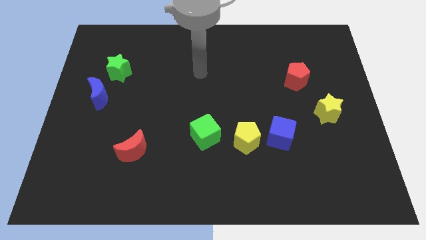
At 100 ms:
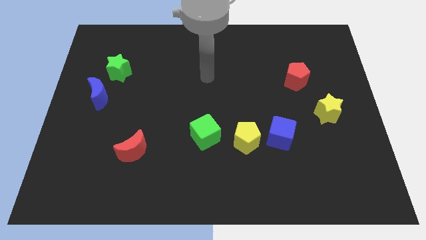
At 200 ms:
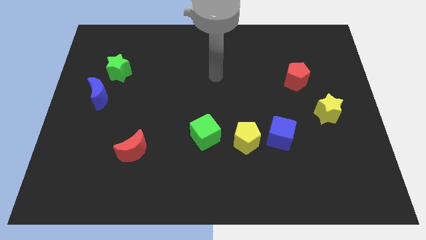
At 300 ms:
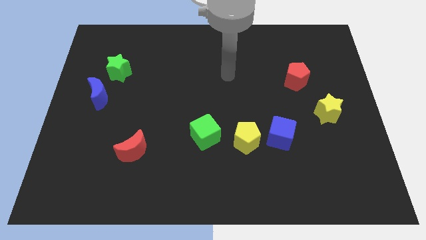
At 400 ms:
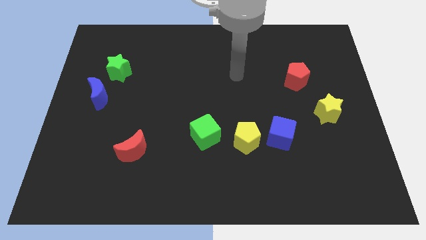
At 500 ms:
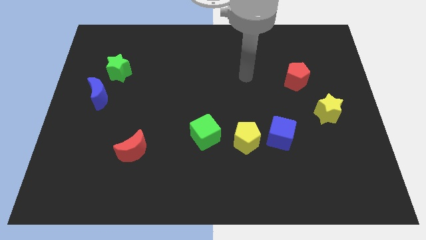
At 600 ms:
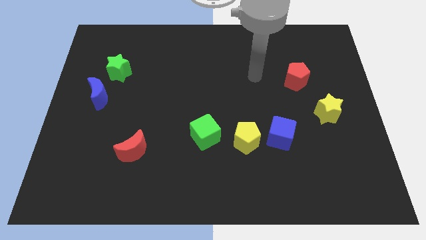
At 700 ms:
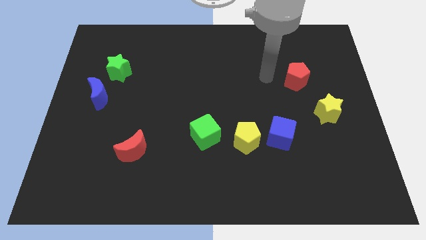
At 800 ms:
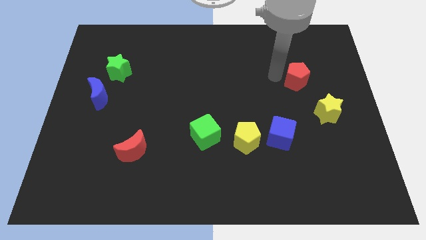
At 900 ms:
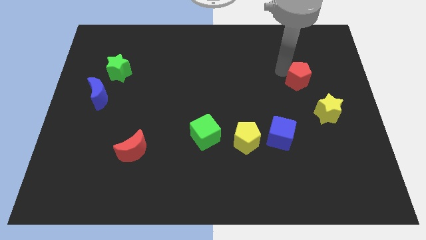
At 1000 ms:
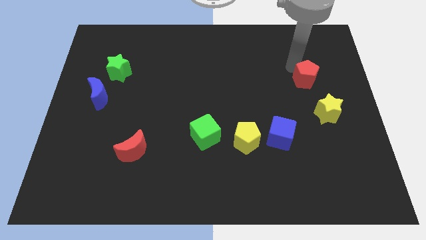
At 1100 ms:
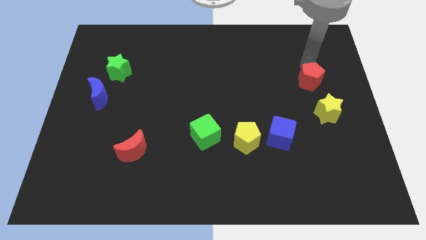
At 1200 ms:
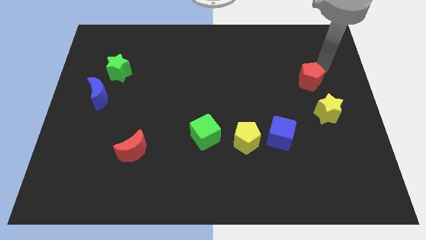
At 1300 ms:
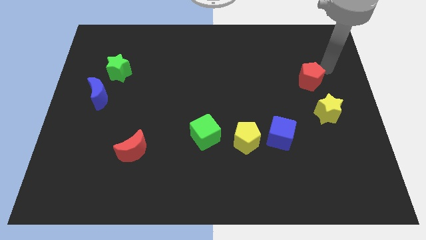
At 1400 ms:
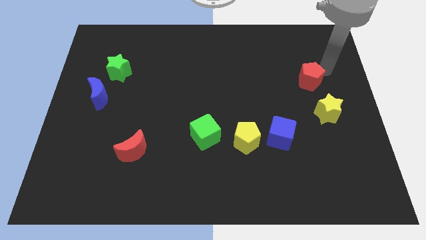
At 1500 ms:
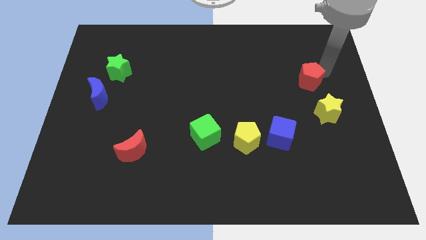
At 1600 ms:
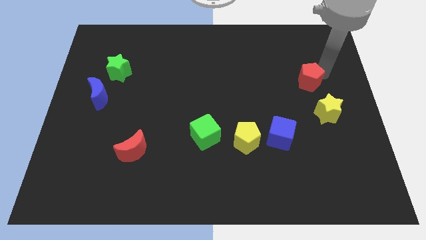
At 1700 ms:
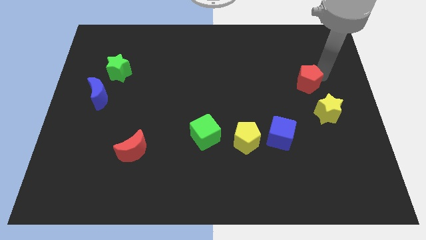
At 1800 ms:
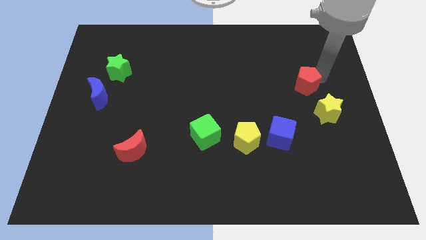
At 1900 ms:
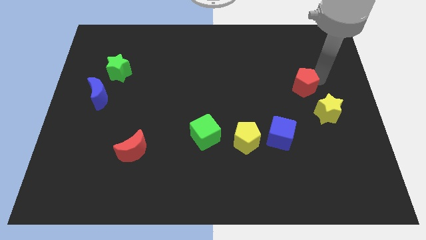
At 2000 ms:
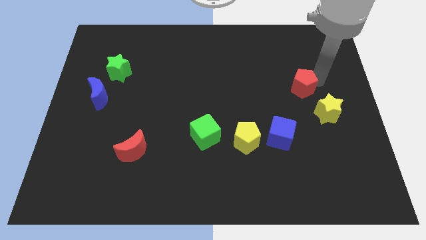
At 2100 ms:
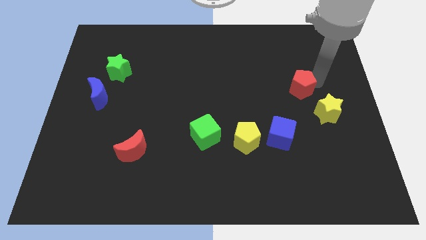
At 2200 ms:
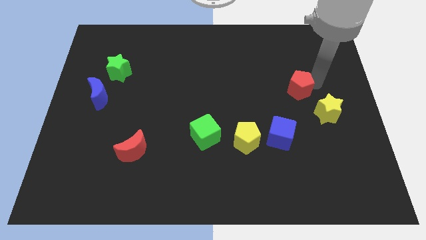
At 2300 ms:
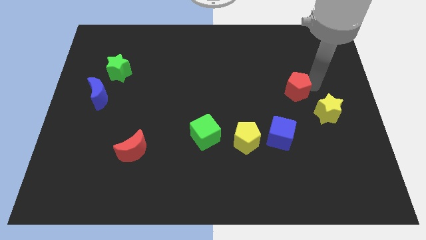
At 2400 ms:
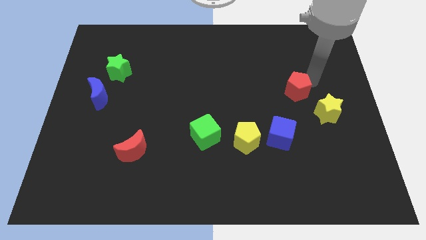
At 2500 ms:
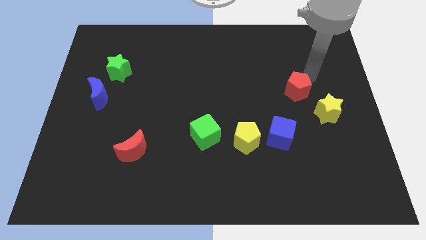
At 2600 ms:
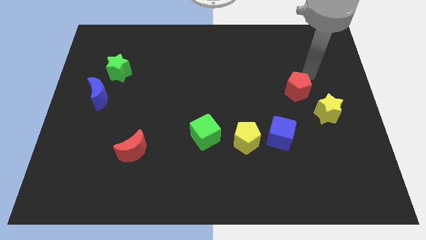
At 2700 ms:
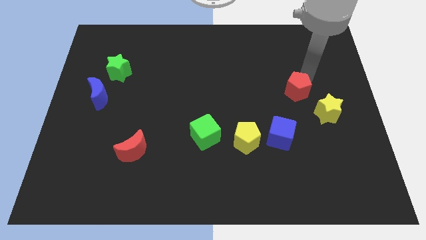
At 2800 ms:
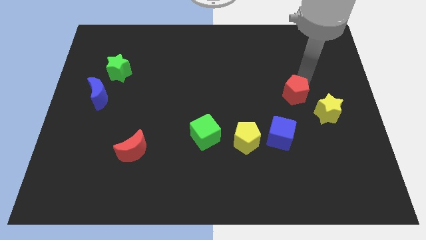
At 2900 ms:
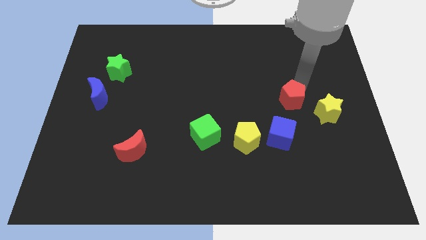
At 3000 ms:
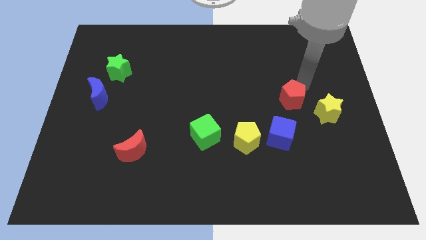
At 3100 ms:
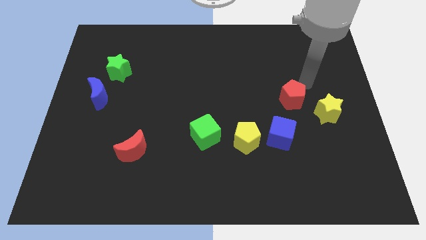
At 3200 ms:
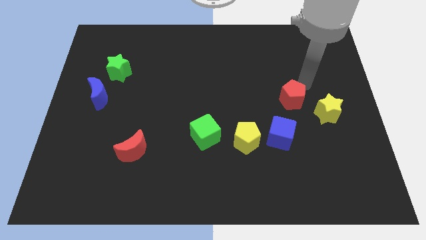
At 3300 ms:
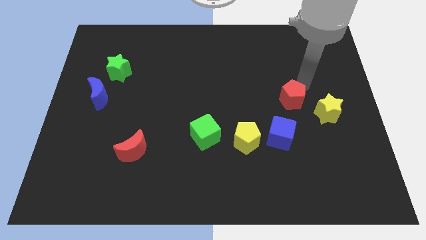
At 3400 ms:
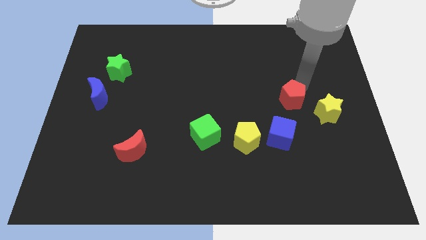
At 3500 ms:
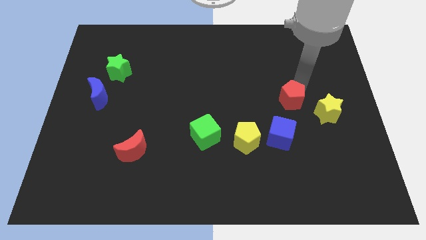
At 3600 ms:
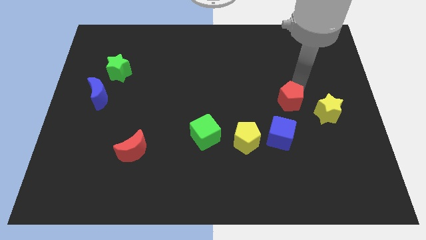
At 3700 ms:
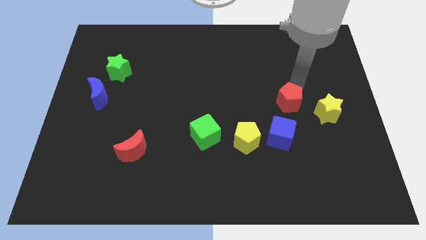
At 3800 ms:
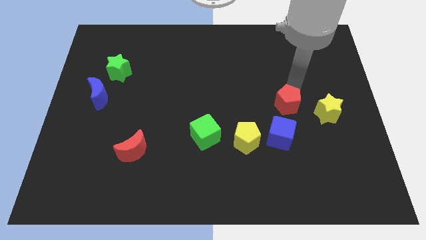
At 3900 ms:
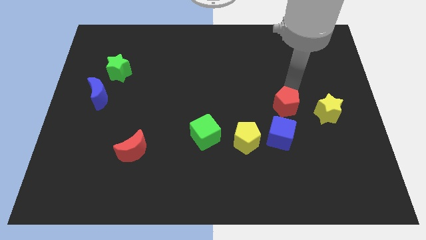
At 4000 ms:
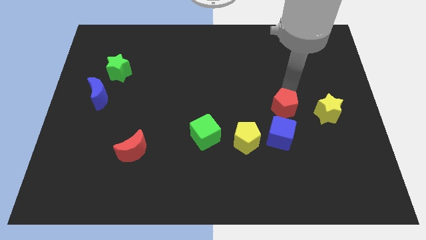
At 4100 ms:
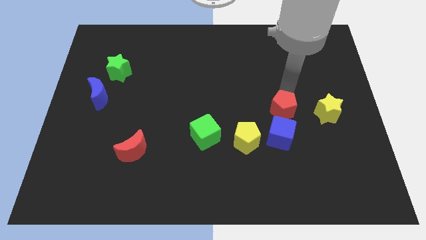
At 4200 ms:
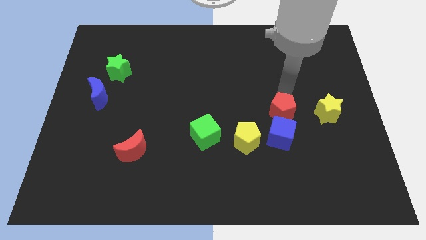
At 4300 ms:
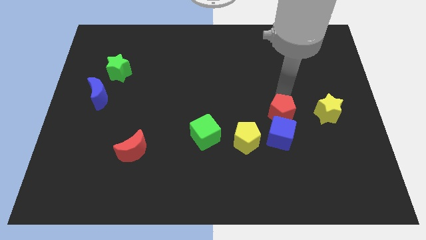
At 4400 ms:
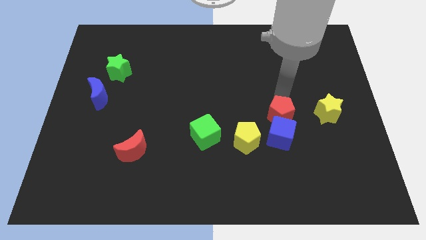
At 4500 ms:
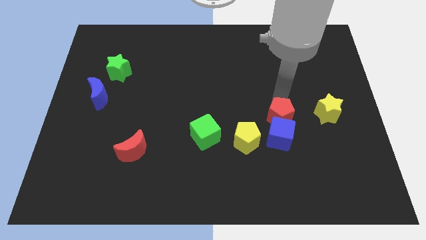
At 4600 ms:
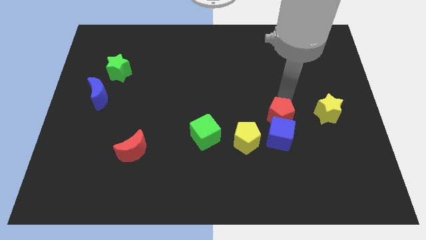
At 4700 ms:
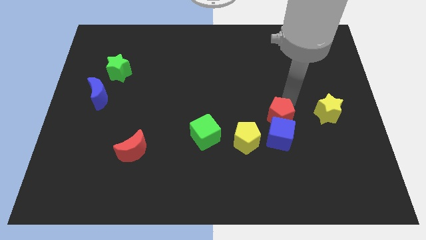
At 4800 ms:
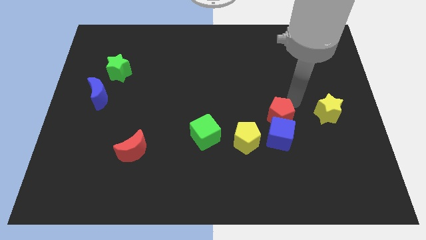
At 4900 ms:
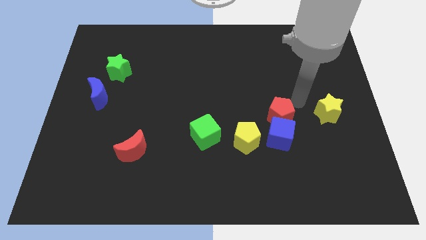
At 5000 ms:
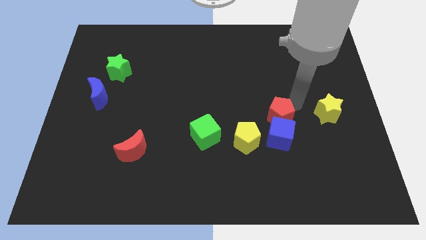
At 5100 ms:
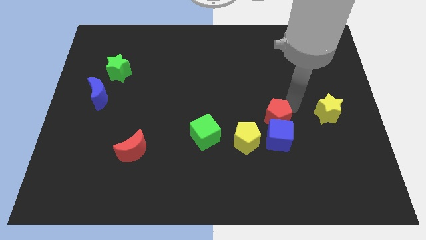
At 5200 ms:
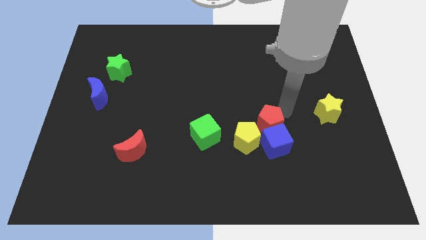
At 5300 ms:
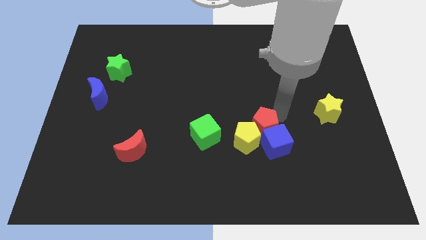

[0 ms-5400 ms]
push the red pentagon to the yellow pentagon

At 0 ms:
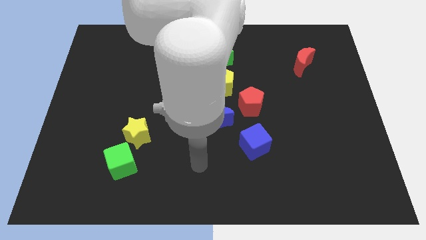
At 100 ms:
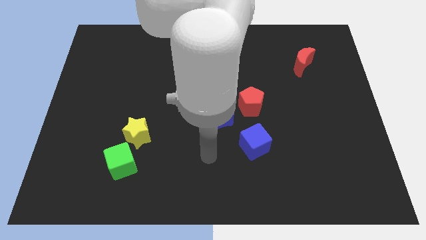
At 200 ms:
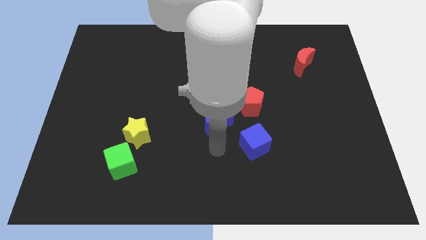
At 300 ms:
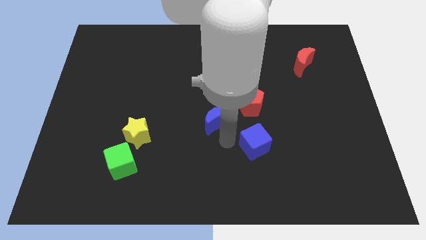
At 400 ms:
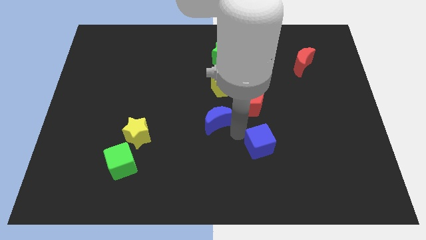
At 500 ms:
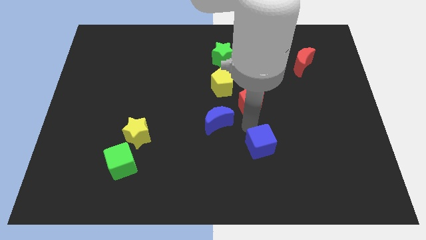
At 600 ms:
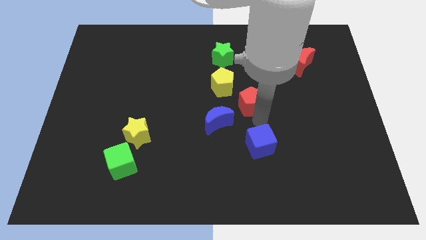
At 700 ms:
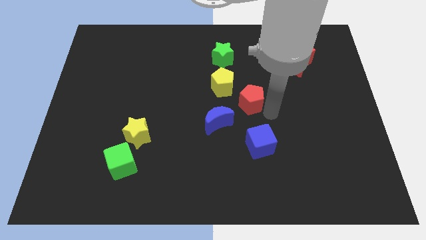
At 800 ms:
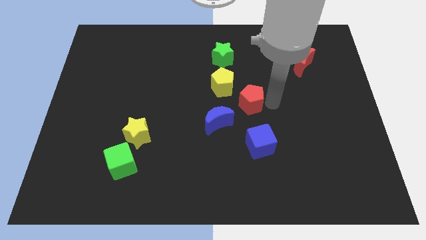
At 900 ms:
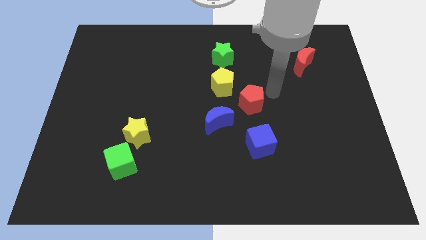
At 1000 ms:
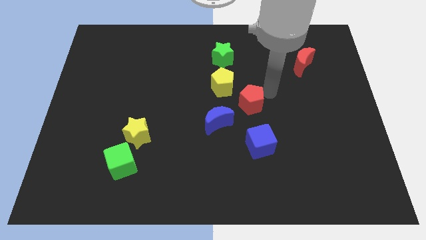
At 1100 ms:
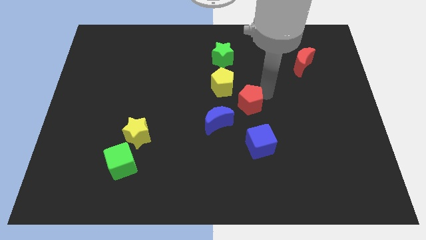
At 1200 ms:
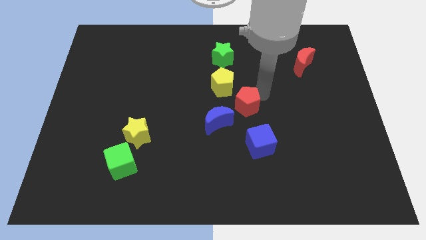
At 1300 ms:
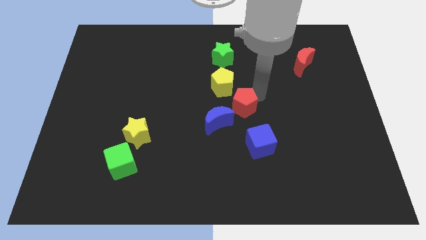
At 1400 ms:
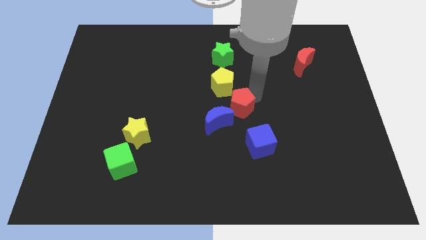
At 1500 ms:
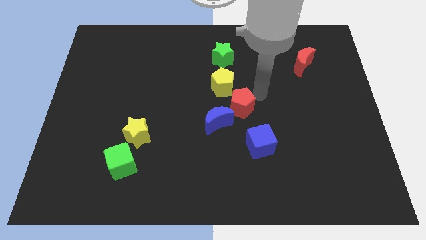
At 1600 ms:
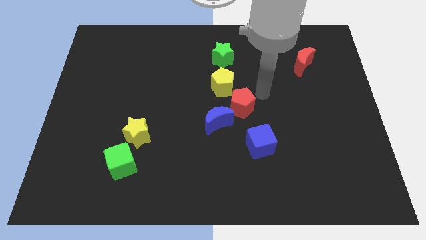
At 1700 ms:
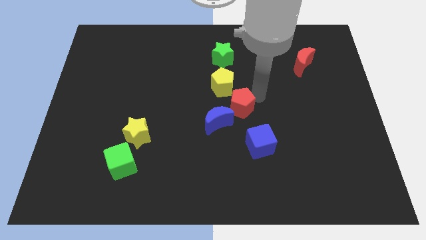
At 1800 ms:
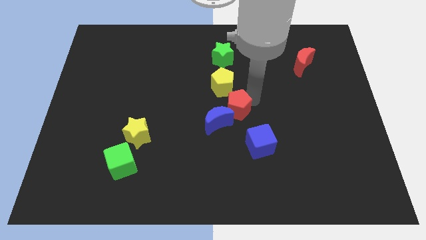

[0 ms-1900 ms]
push the red pentagon towards the blue moon

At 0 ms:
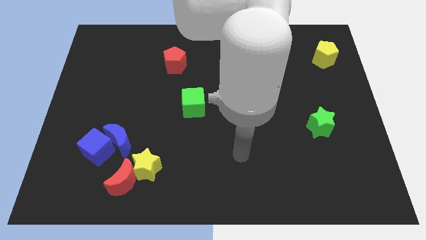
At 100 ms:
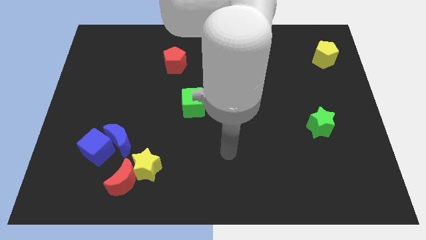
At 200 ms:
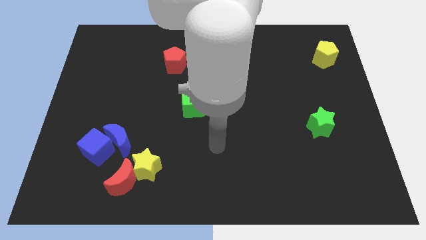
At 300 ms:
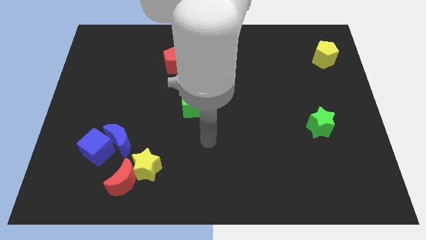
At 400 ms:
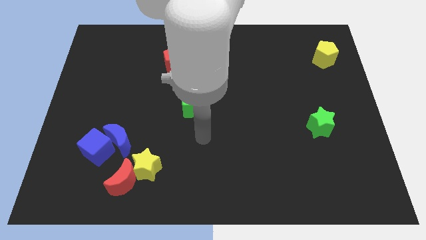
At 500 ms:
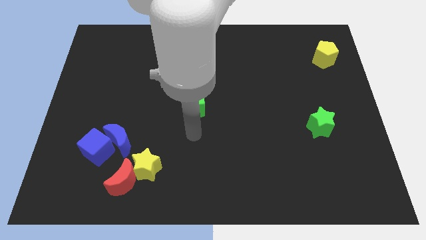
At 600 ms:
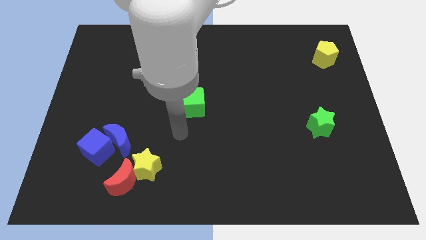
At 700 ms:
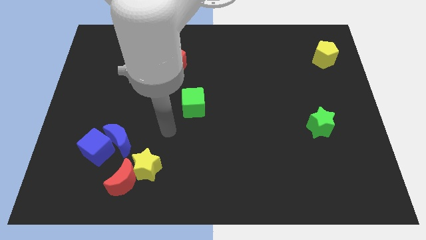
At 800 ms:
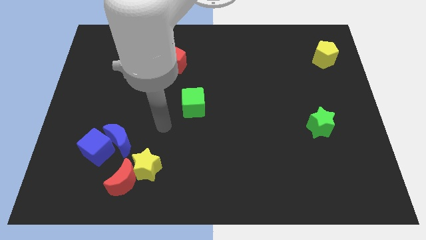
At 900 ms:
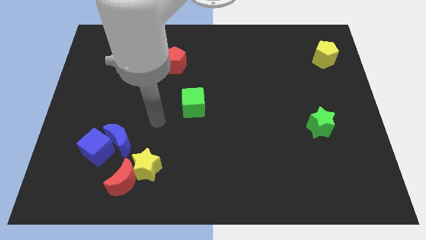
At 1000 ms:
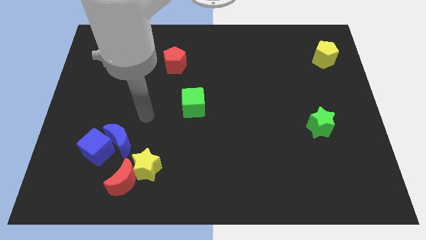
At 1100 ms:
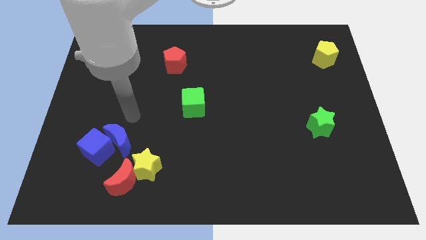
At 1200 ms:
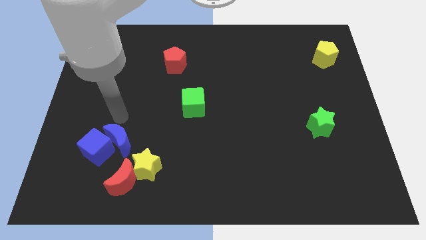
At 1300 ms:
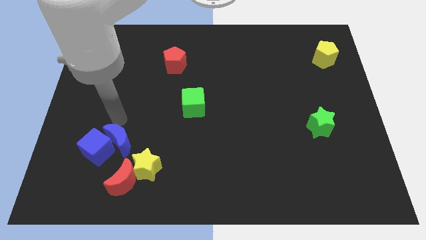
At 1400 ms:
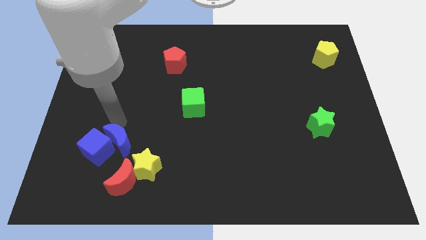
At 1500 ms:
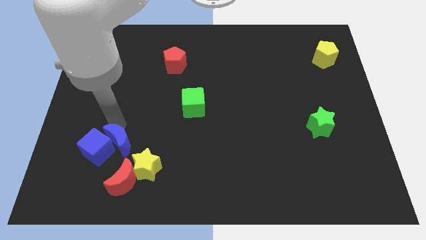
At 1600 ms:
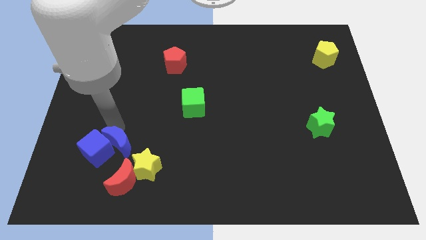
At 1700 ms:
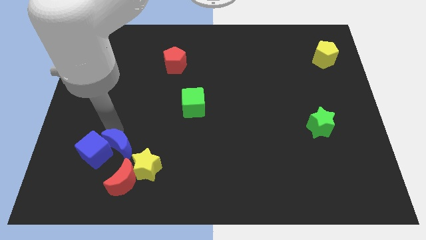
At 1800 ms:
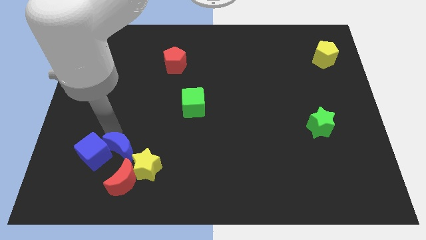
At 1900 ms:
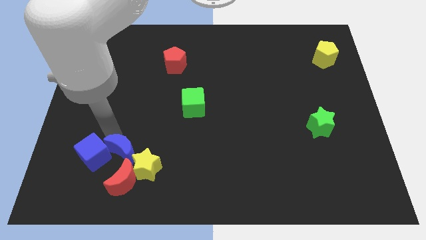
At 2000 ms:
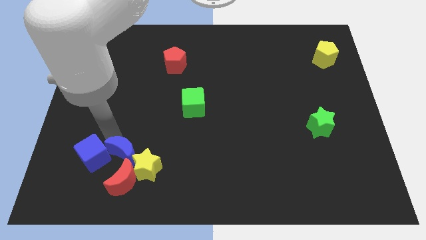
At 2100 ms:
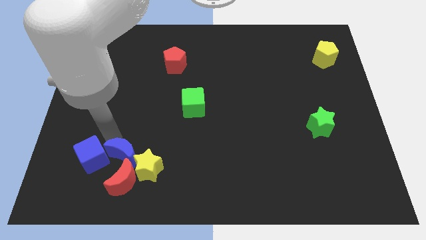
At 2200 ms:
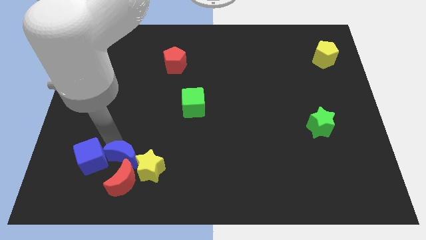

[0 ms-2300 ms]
move the blue moon to the red moon
